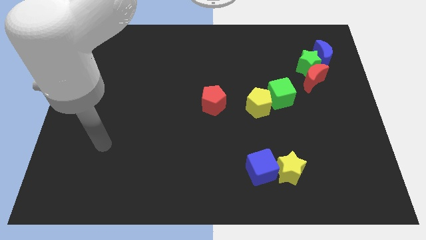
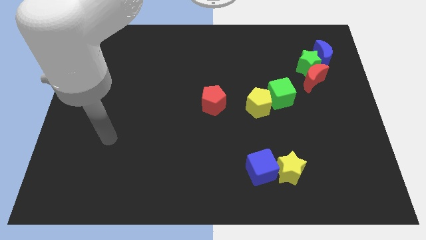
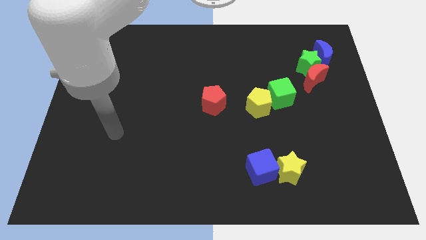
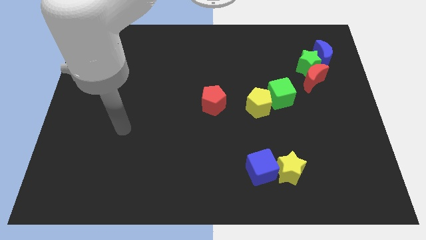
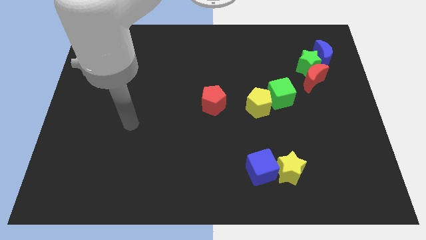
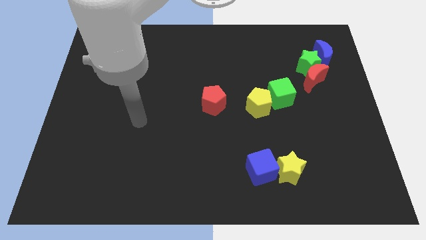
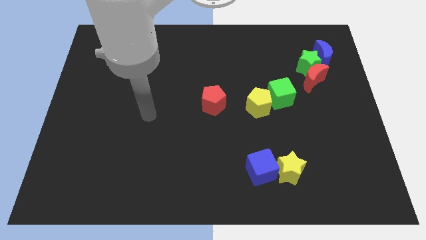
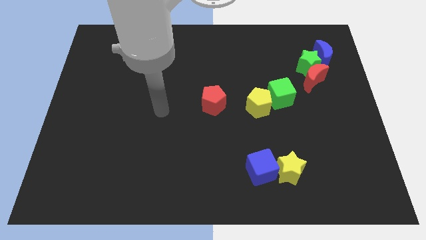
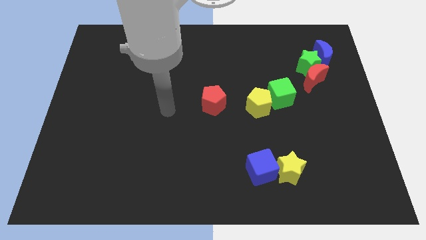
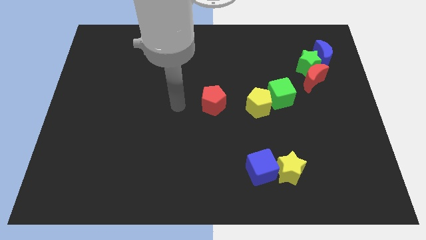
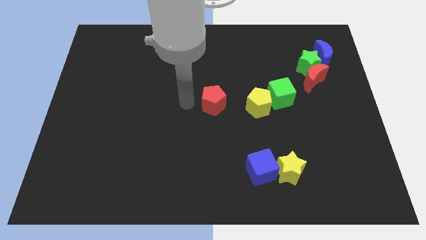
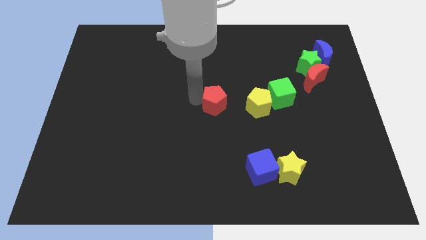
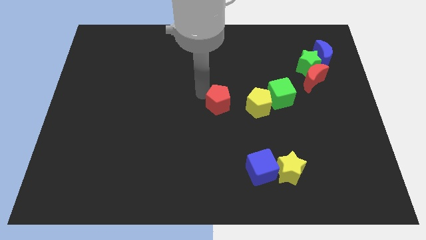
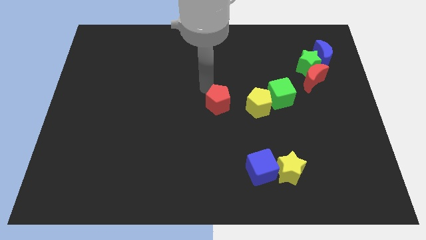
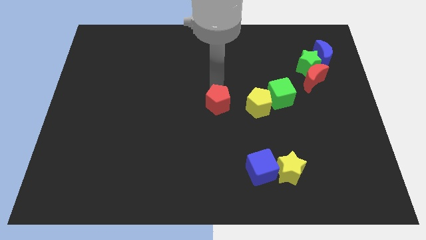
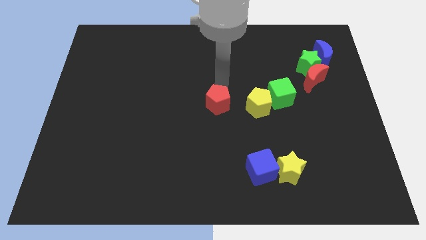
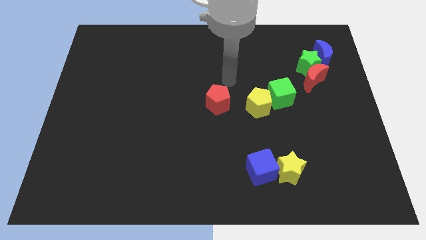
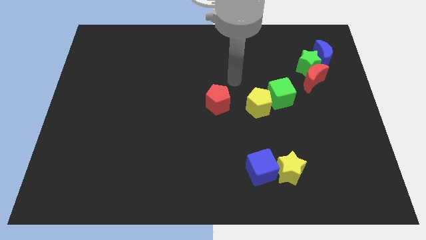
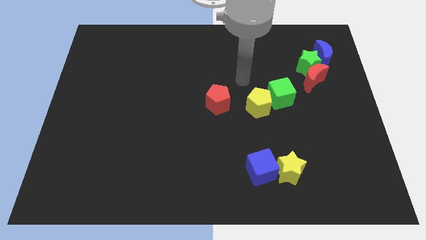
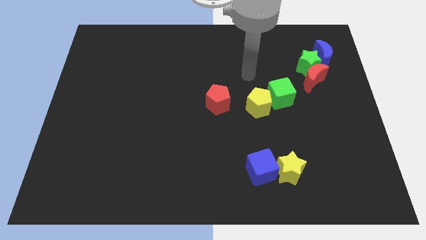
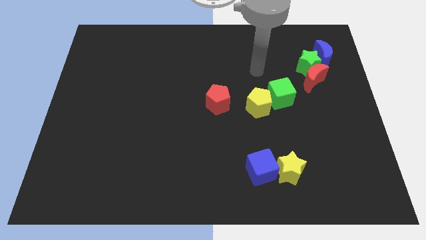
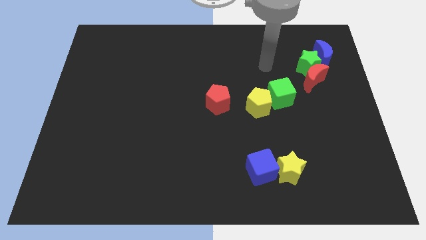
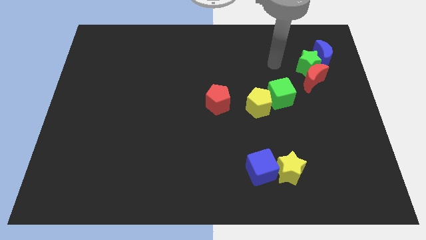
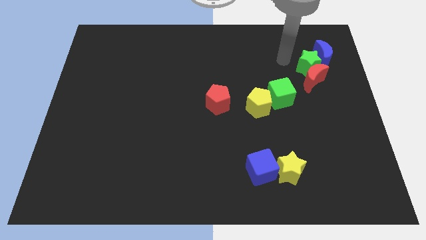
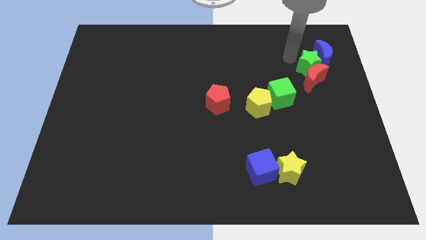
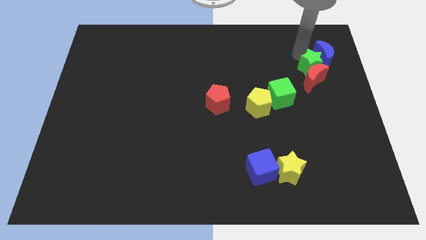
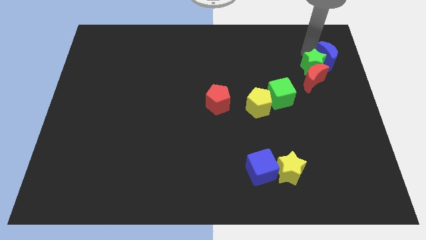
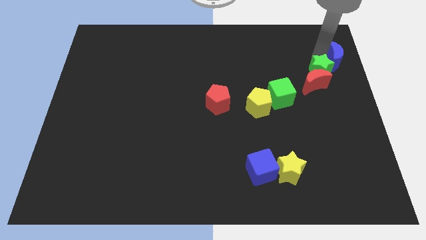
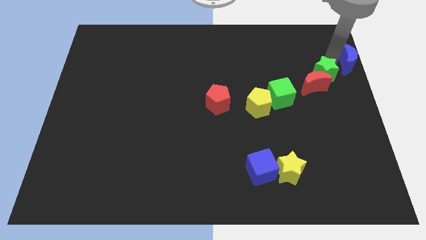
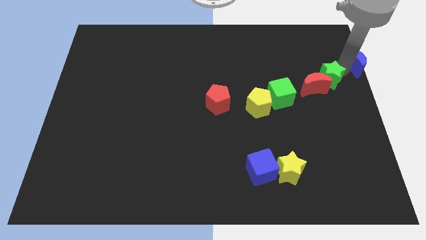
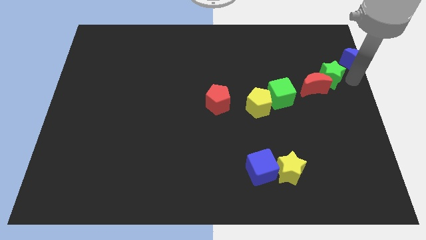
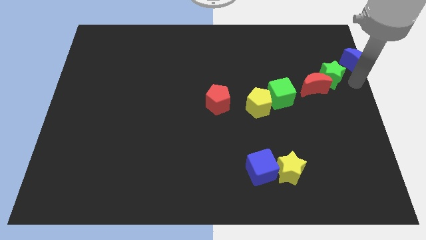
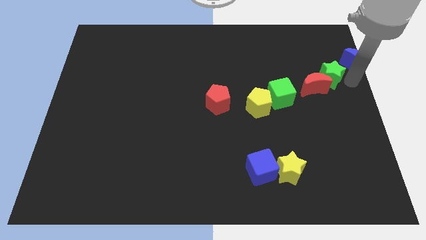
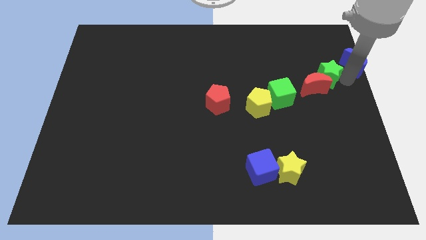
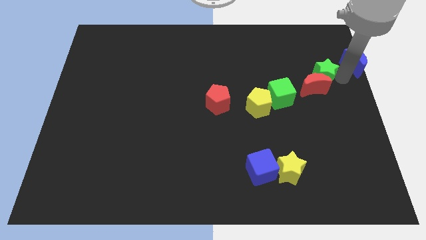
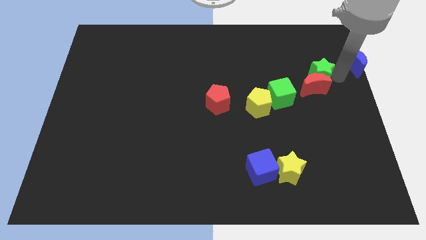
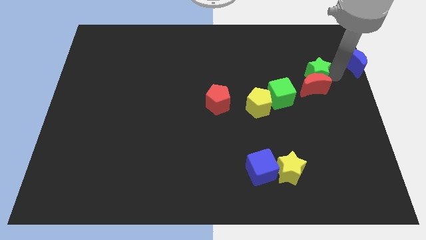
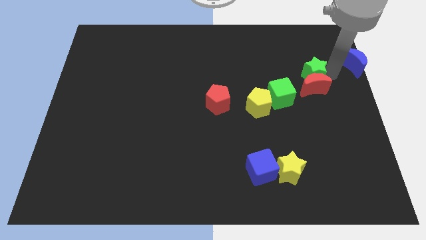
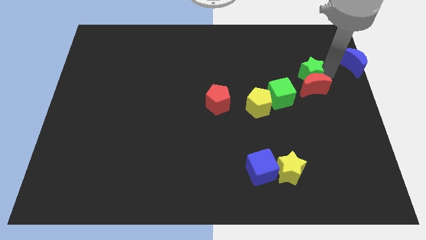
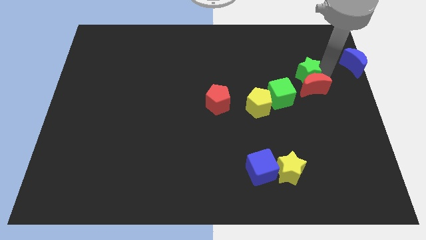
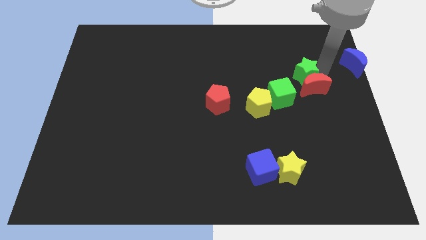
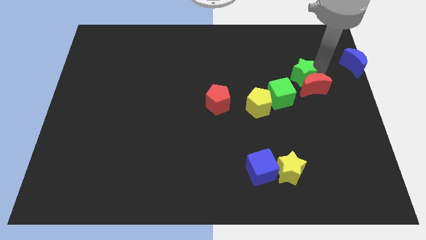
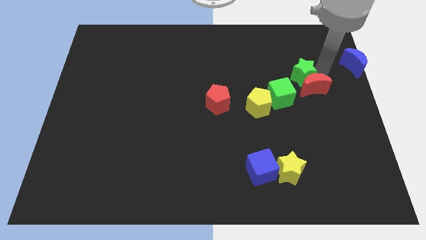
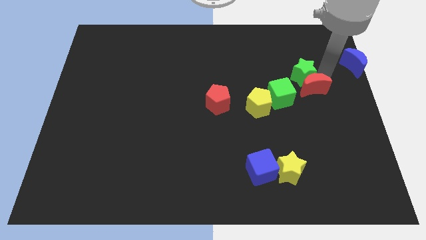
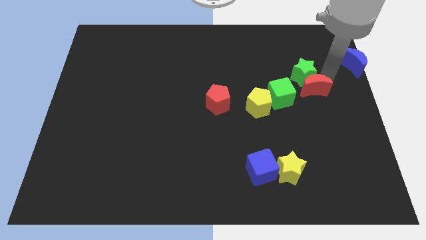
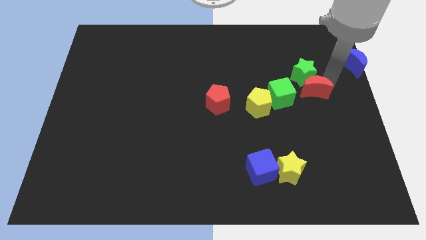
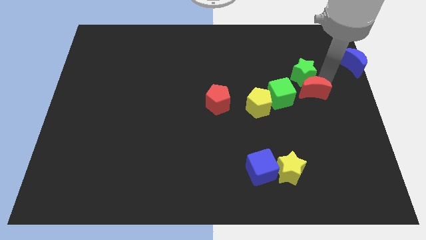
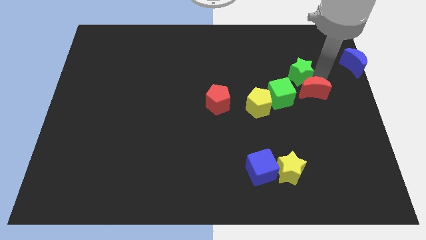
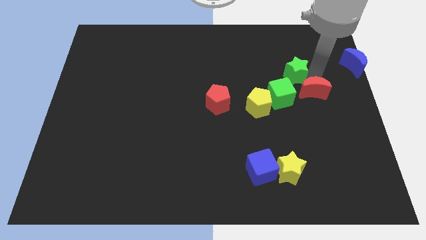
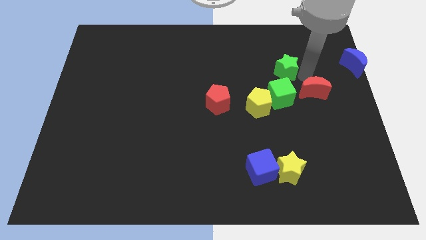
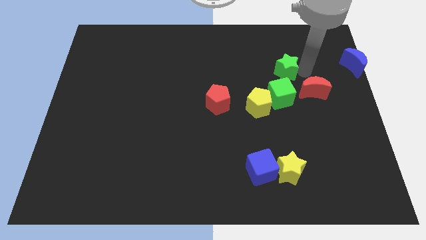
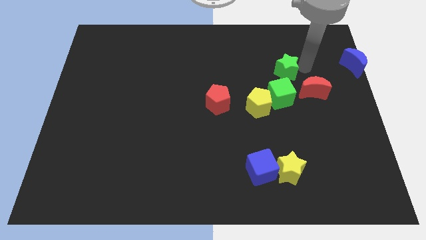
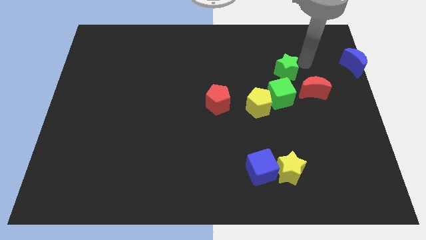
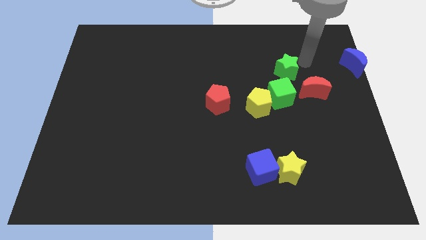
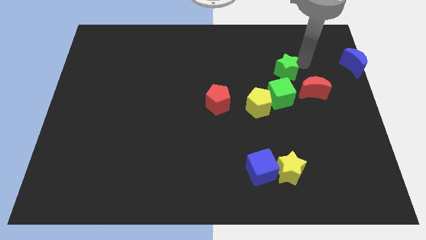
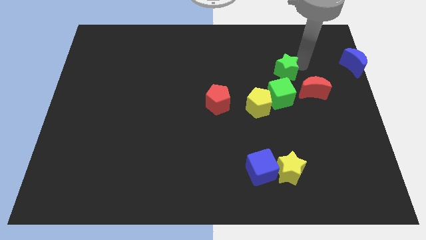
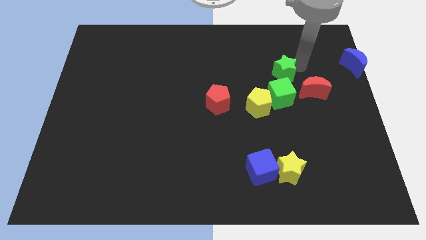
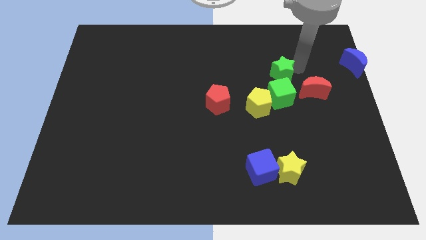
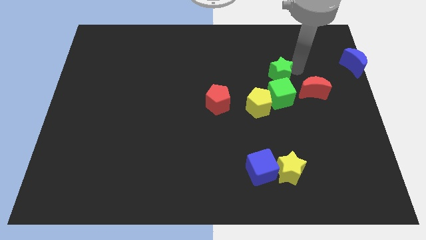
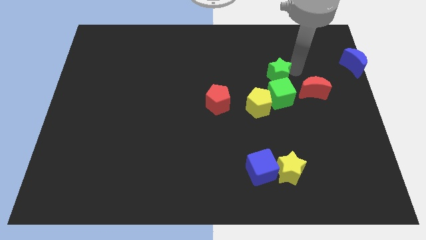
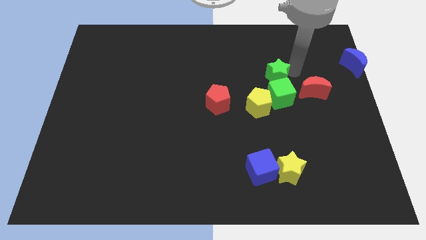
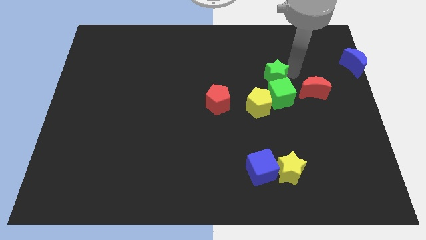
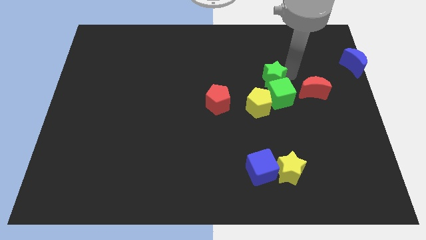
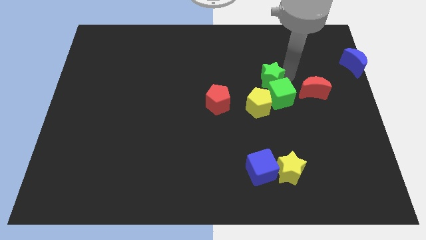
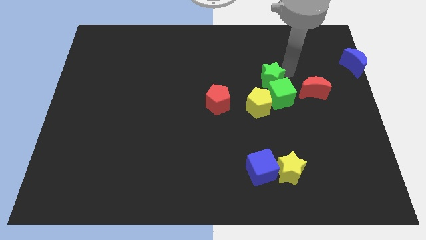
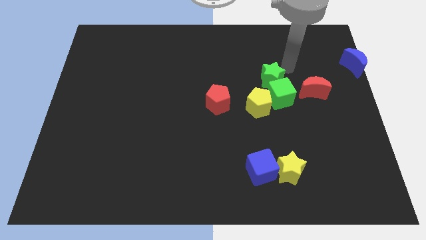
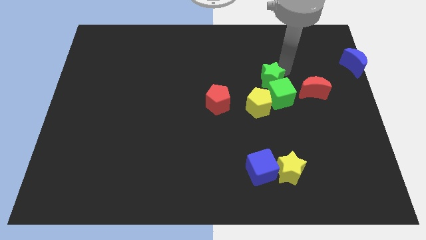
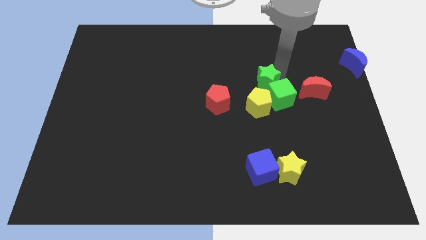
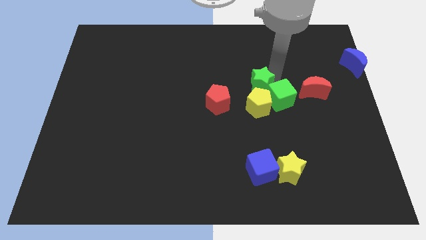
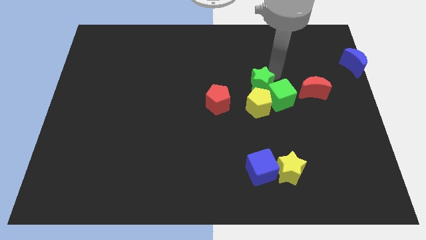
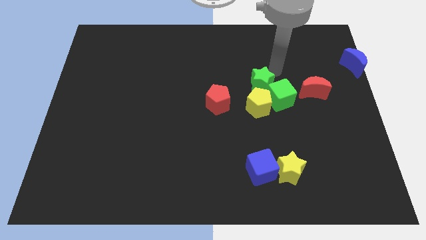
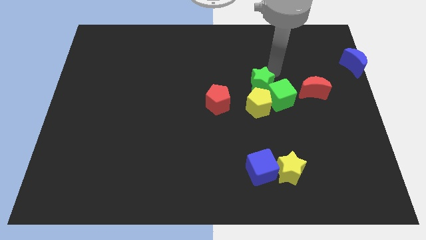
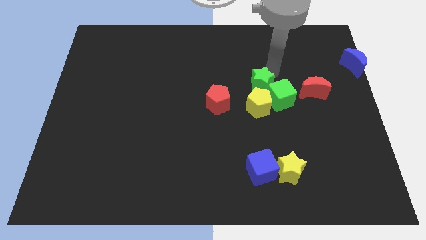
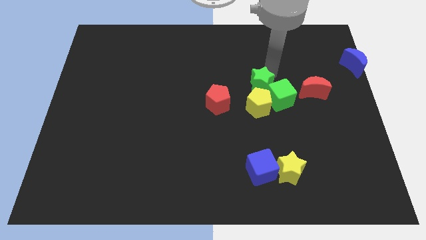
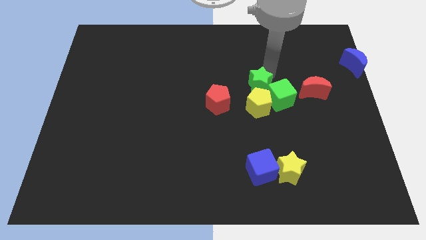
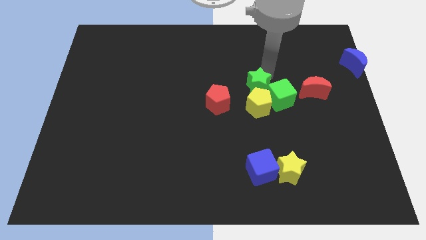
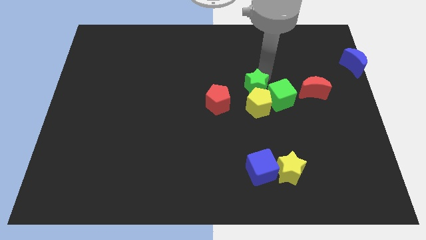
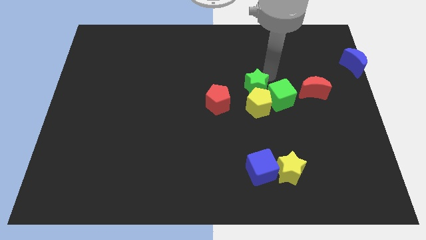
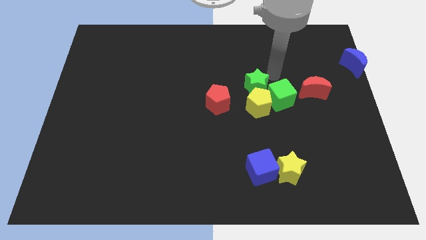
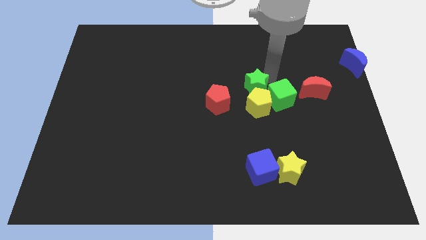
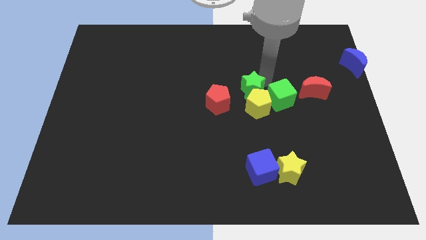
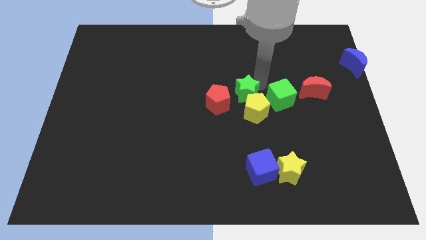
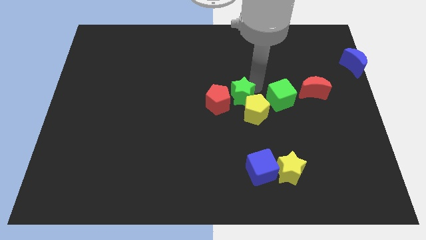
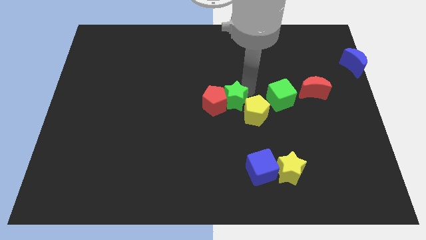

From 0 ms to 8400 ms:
slide the green star down and to the left
